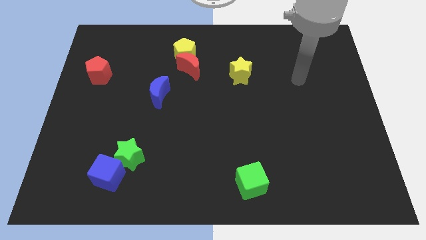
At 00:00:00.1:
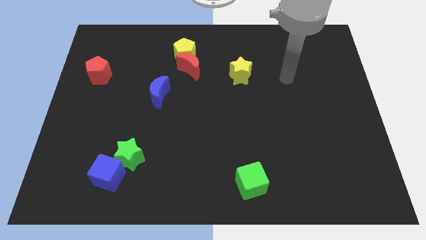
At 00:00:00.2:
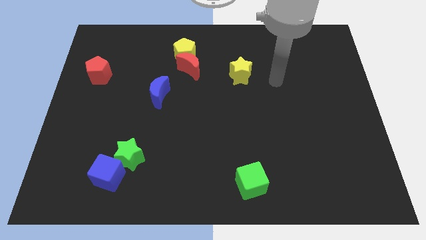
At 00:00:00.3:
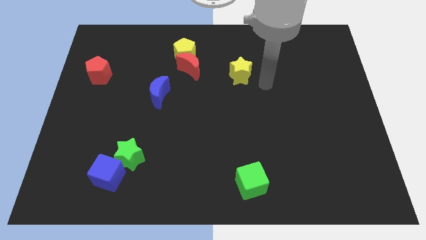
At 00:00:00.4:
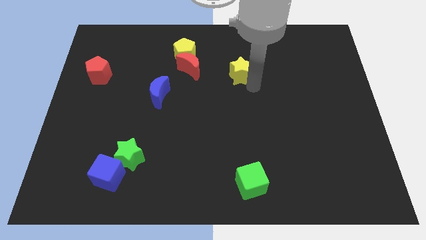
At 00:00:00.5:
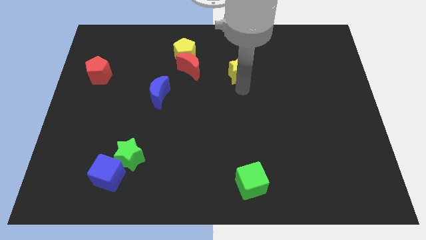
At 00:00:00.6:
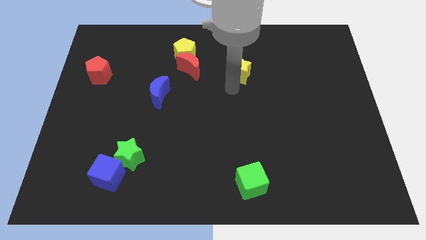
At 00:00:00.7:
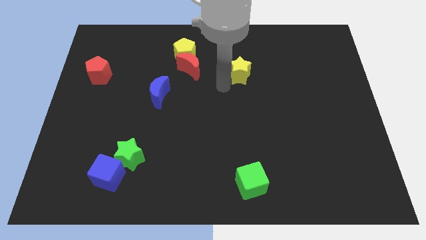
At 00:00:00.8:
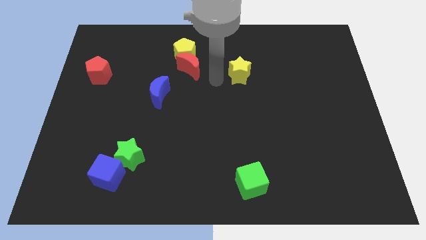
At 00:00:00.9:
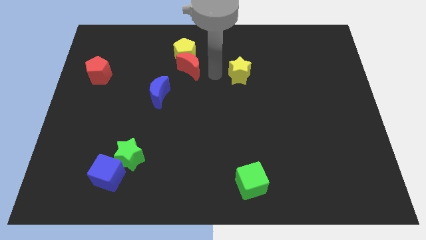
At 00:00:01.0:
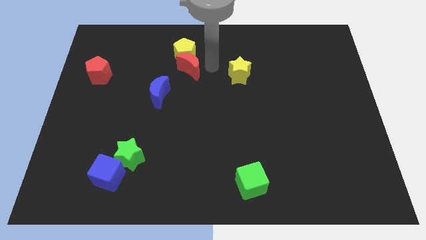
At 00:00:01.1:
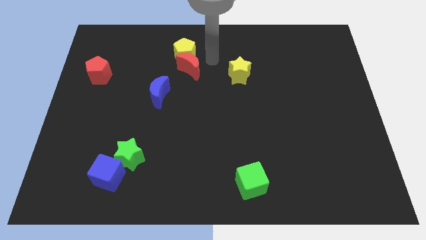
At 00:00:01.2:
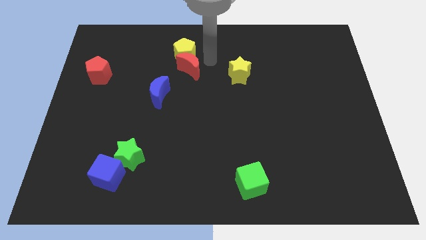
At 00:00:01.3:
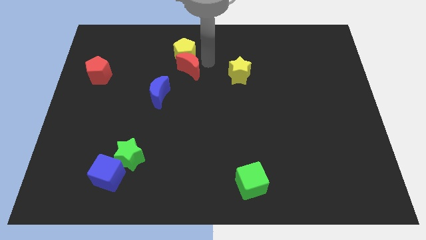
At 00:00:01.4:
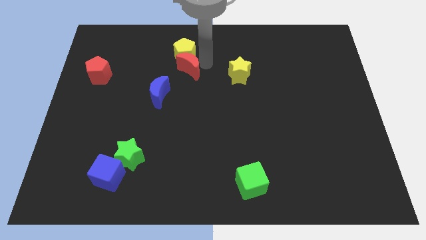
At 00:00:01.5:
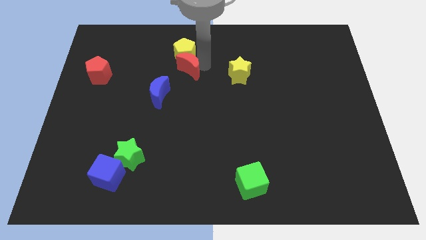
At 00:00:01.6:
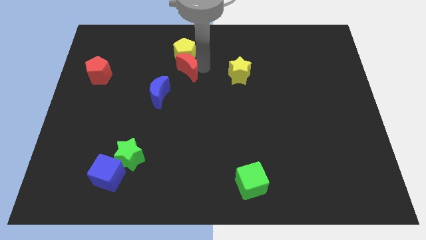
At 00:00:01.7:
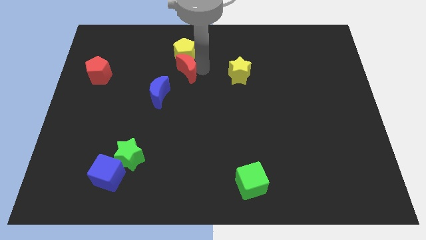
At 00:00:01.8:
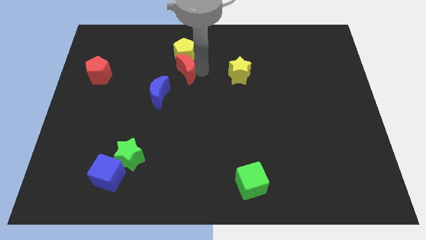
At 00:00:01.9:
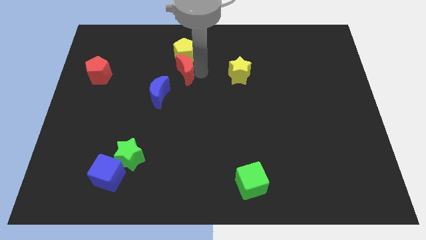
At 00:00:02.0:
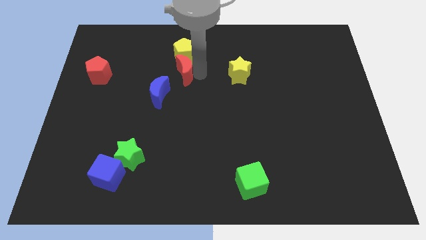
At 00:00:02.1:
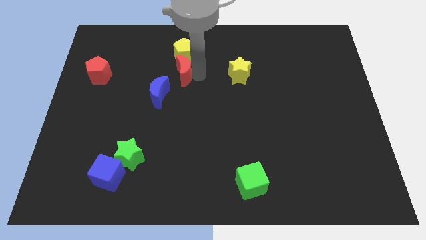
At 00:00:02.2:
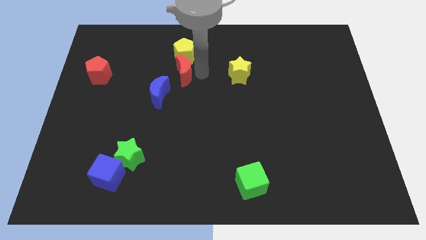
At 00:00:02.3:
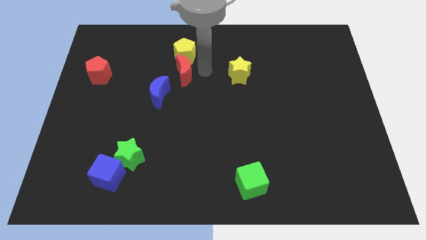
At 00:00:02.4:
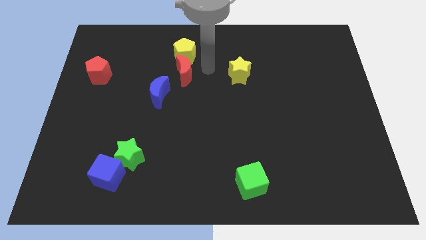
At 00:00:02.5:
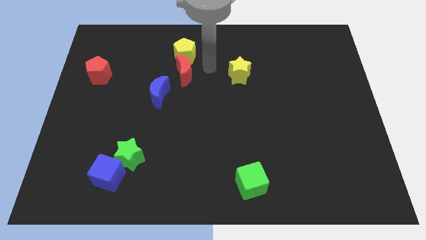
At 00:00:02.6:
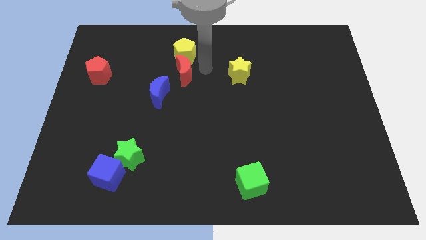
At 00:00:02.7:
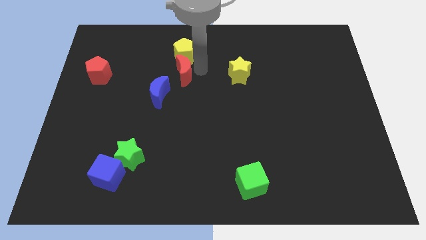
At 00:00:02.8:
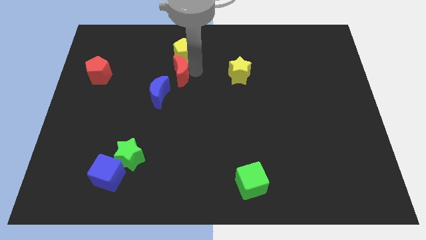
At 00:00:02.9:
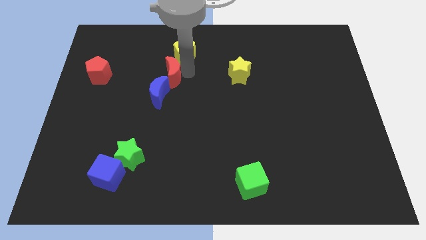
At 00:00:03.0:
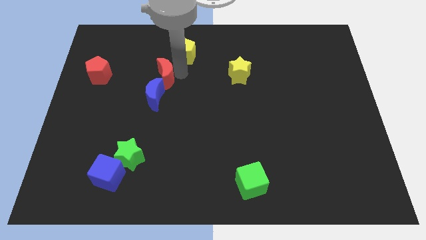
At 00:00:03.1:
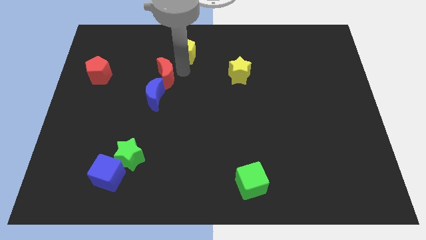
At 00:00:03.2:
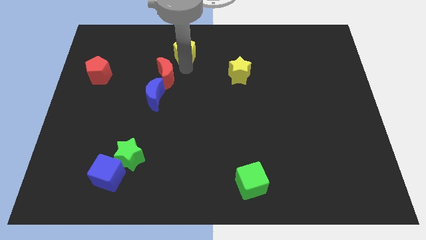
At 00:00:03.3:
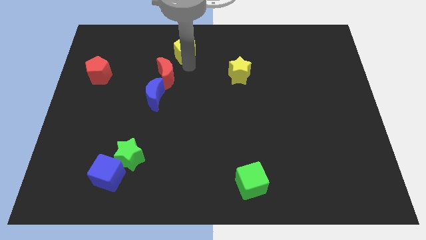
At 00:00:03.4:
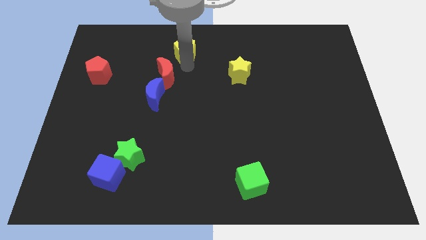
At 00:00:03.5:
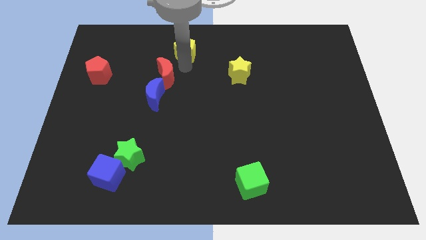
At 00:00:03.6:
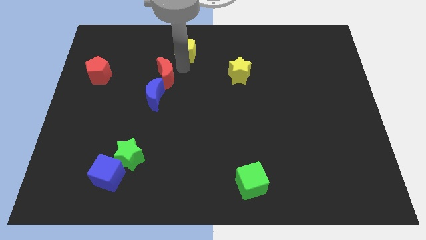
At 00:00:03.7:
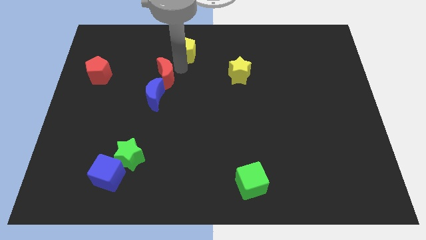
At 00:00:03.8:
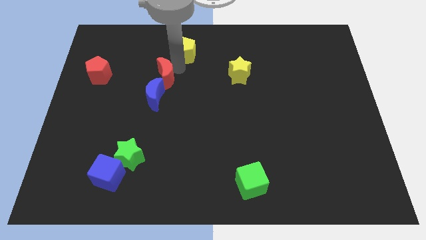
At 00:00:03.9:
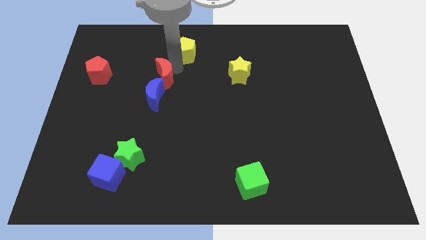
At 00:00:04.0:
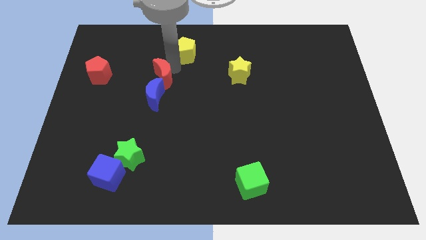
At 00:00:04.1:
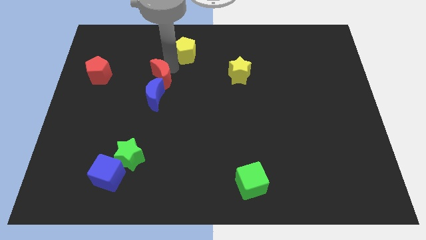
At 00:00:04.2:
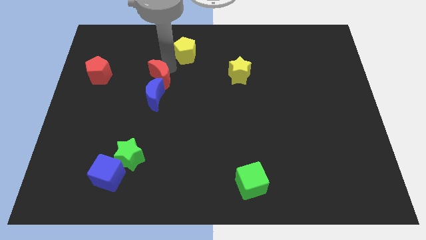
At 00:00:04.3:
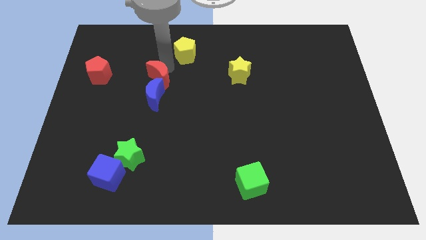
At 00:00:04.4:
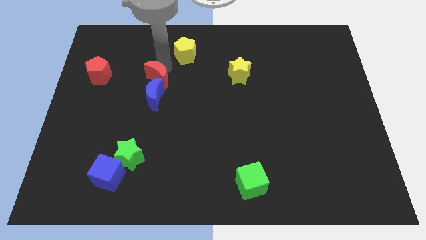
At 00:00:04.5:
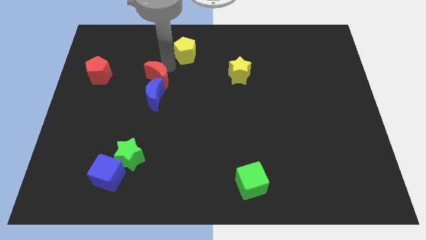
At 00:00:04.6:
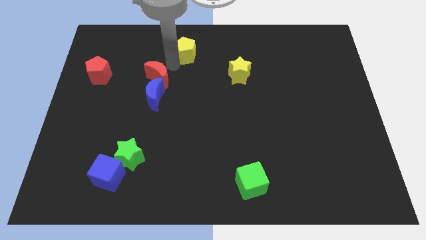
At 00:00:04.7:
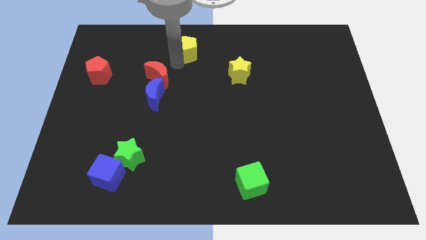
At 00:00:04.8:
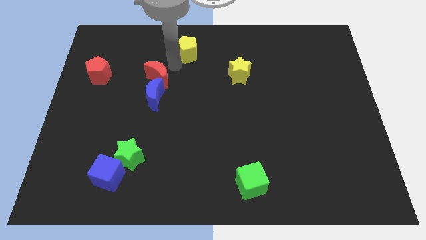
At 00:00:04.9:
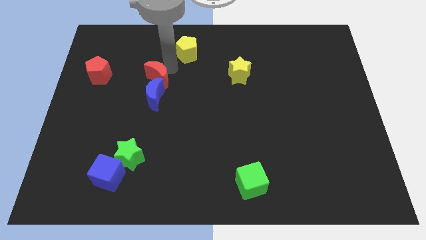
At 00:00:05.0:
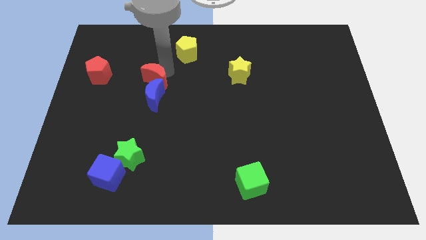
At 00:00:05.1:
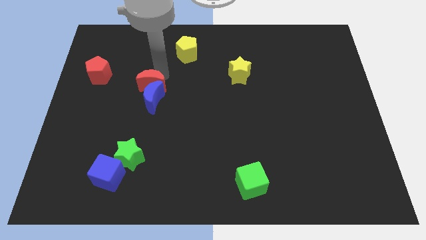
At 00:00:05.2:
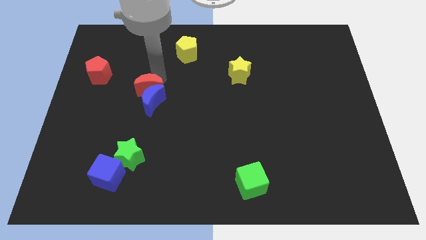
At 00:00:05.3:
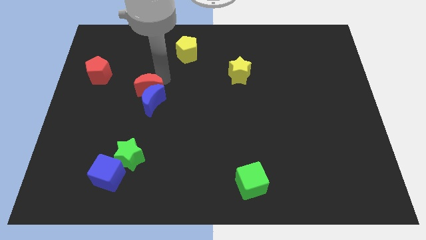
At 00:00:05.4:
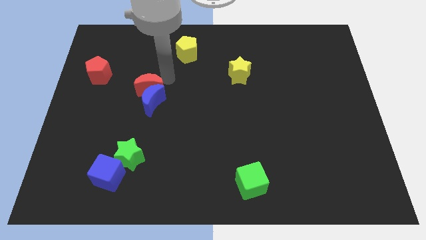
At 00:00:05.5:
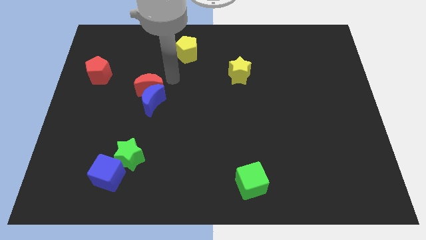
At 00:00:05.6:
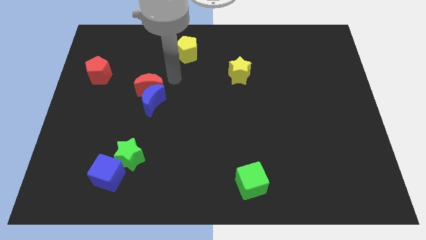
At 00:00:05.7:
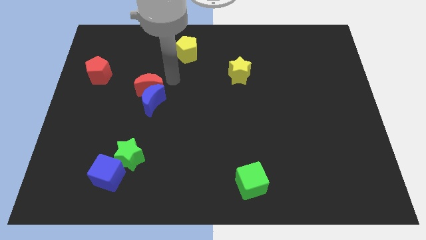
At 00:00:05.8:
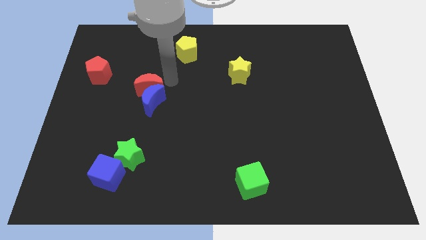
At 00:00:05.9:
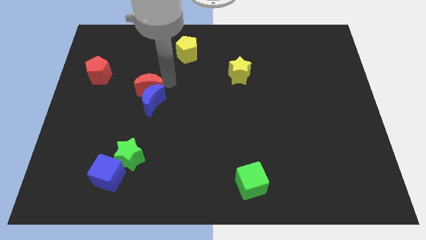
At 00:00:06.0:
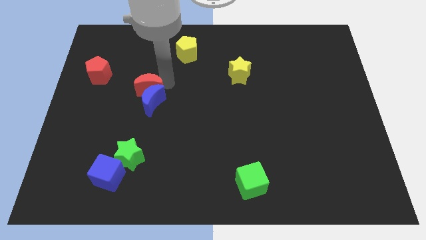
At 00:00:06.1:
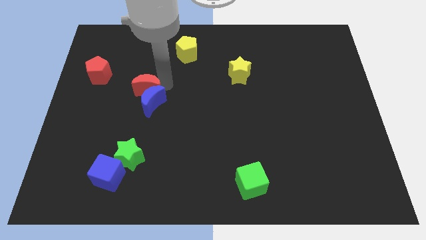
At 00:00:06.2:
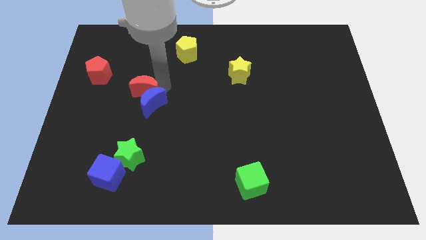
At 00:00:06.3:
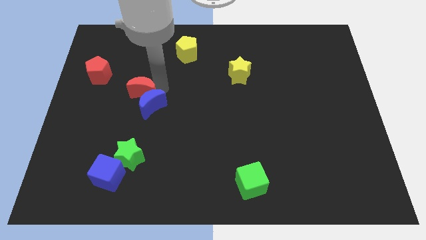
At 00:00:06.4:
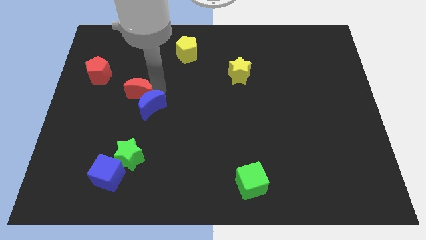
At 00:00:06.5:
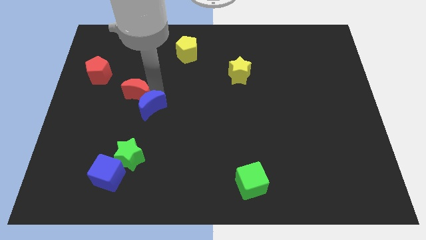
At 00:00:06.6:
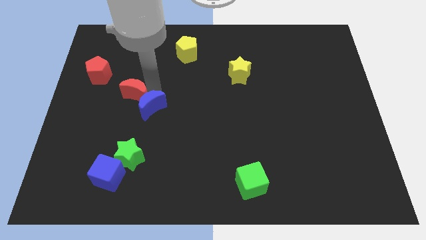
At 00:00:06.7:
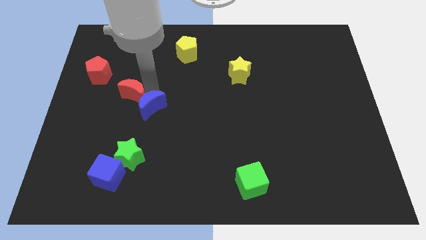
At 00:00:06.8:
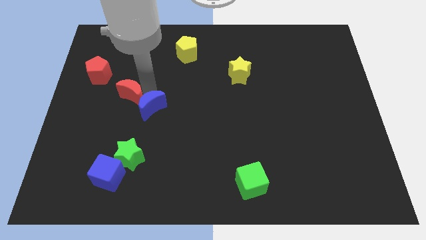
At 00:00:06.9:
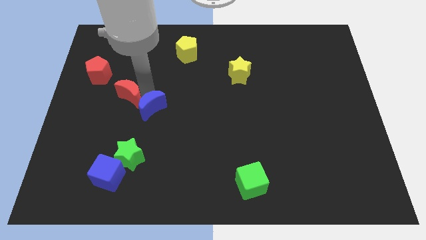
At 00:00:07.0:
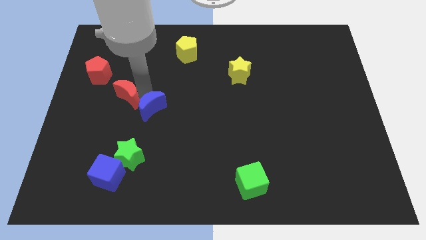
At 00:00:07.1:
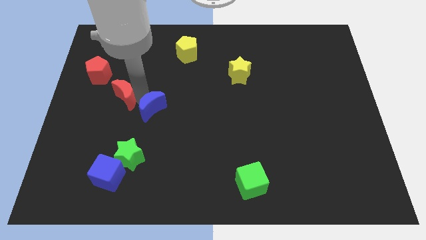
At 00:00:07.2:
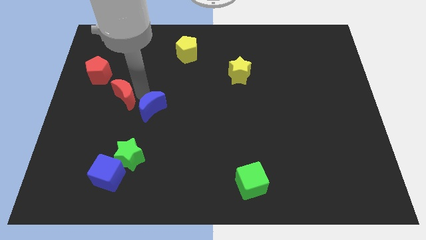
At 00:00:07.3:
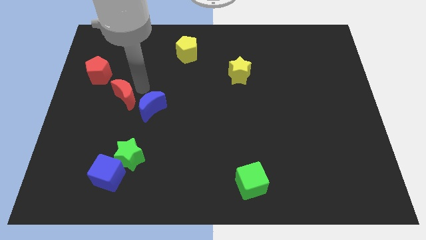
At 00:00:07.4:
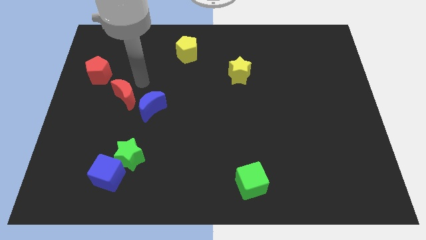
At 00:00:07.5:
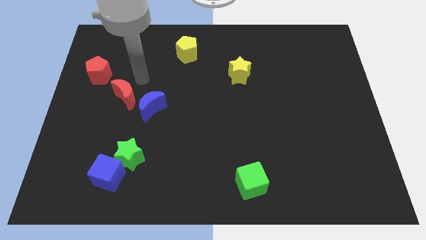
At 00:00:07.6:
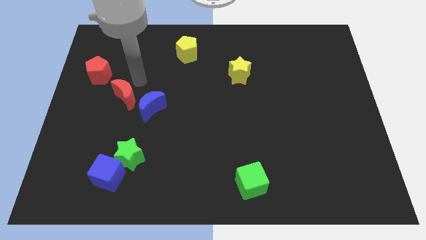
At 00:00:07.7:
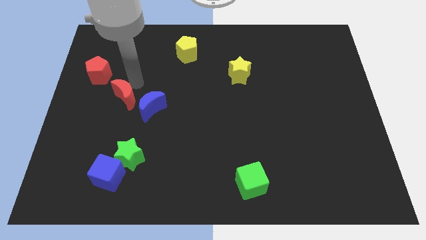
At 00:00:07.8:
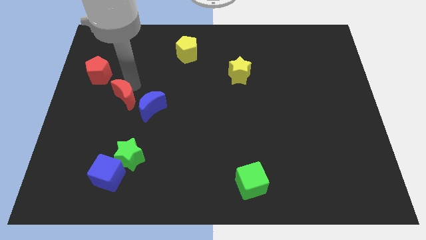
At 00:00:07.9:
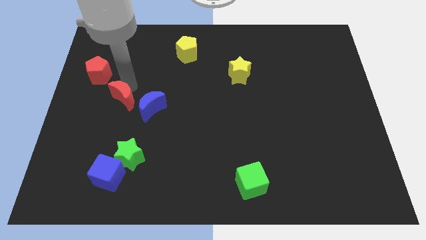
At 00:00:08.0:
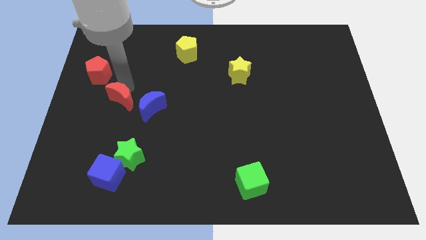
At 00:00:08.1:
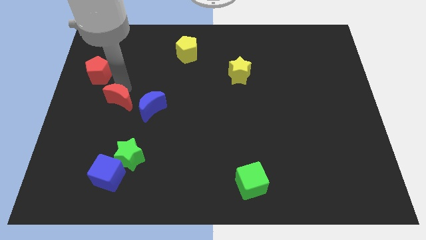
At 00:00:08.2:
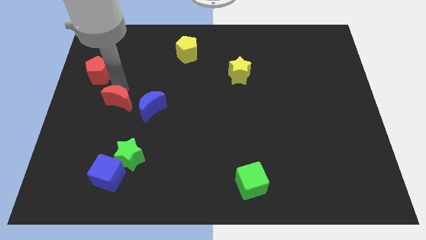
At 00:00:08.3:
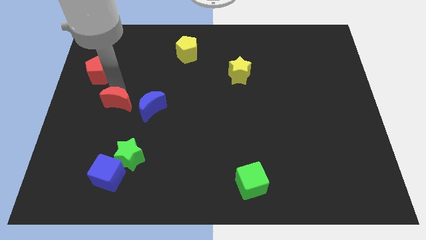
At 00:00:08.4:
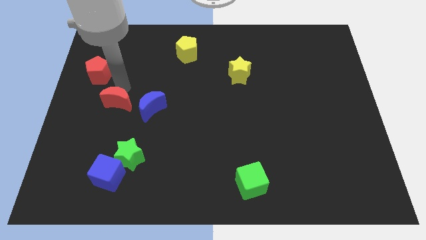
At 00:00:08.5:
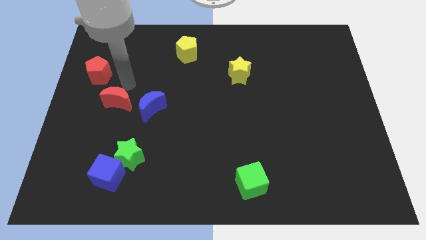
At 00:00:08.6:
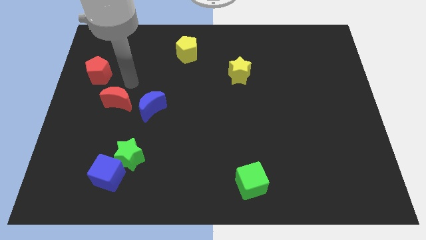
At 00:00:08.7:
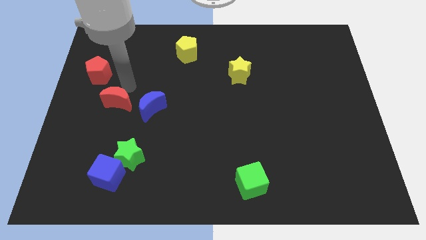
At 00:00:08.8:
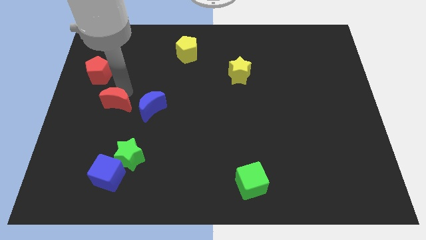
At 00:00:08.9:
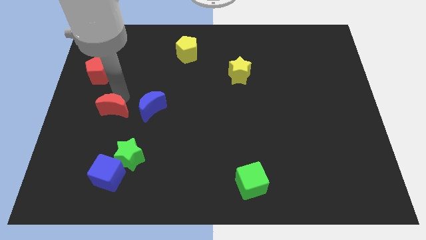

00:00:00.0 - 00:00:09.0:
push the red moon down and left diagonally
